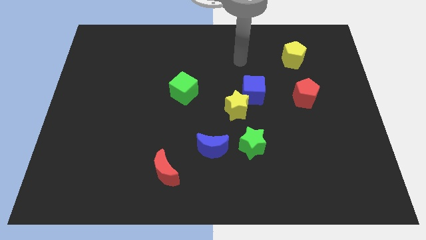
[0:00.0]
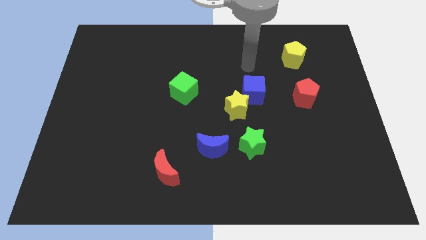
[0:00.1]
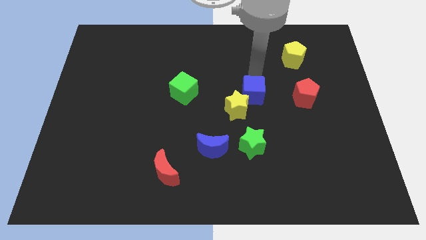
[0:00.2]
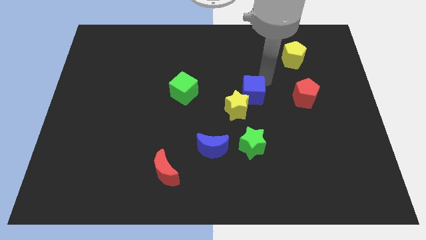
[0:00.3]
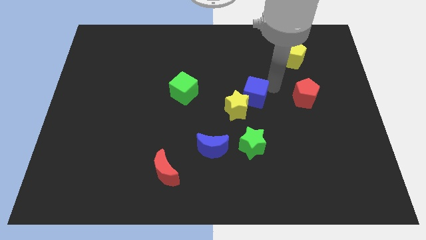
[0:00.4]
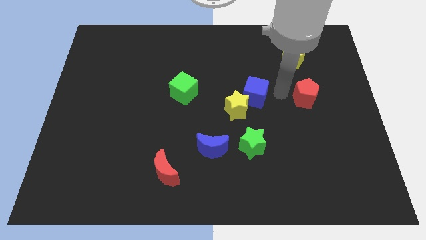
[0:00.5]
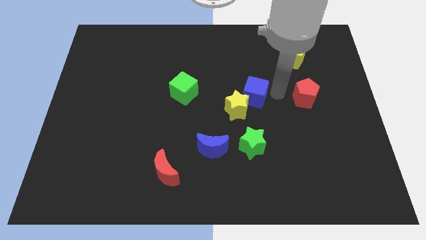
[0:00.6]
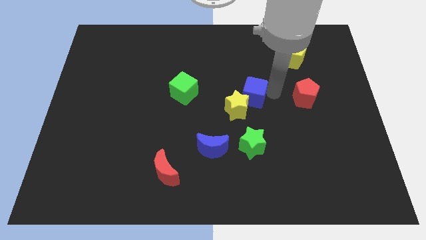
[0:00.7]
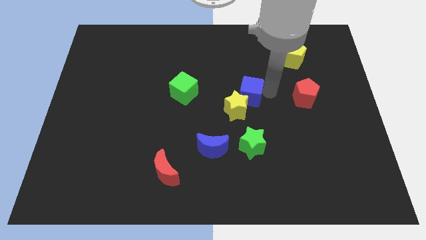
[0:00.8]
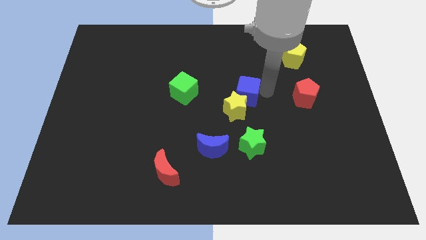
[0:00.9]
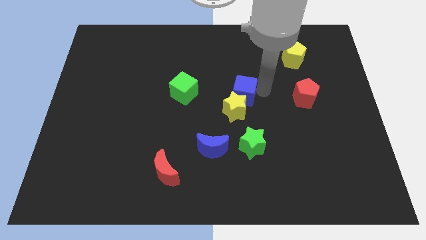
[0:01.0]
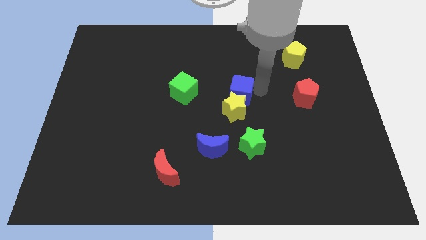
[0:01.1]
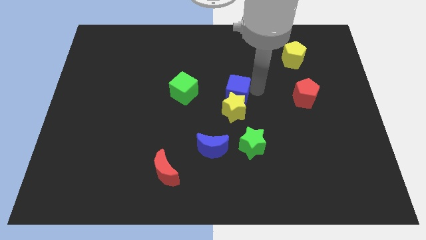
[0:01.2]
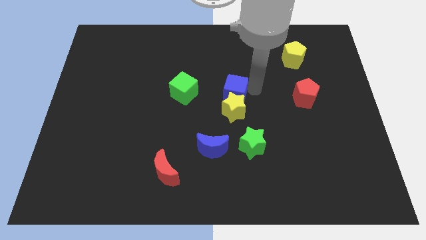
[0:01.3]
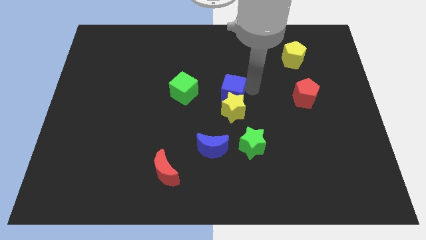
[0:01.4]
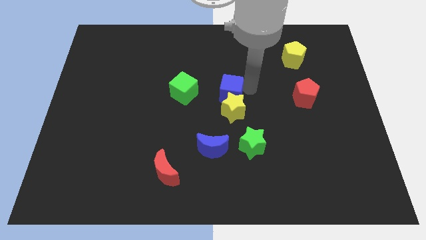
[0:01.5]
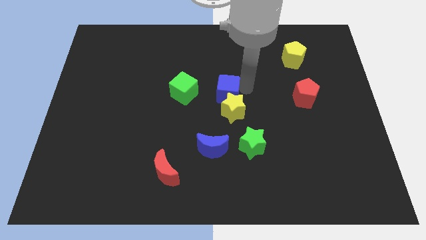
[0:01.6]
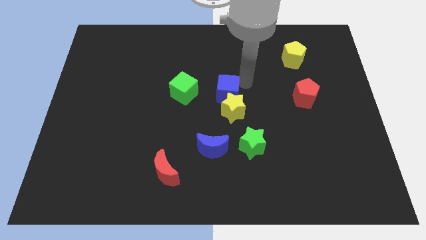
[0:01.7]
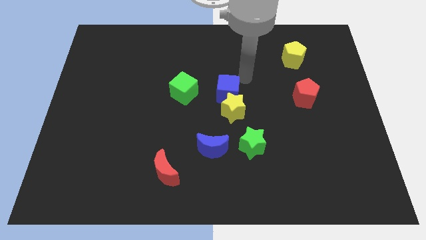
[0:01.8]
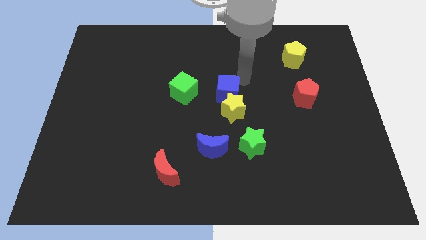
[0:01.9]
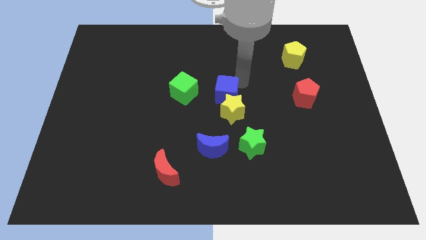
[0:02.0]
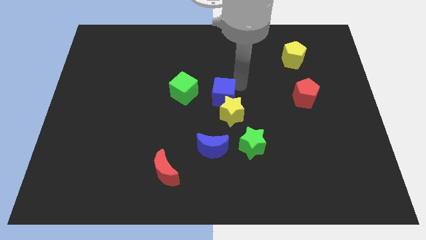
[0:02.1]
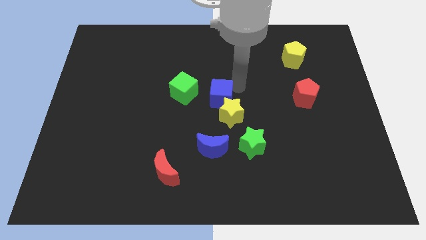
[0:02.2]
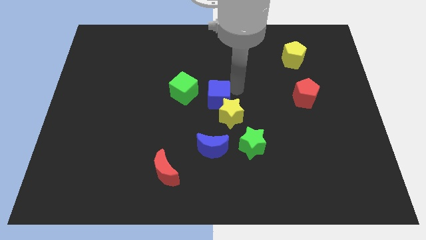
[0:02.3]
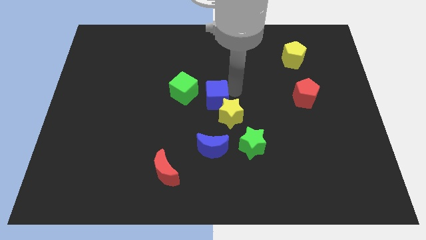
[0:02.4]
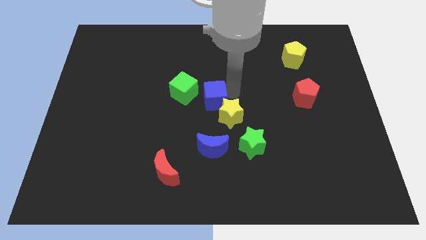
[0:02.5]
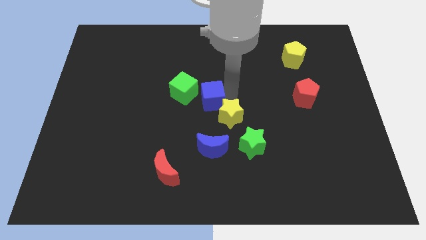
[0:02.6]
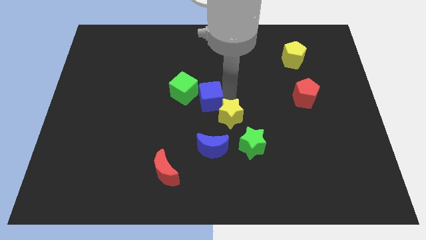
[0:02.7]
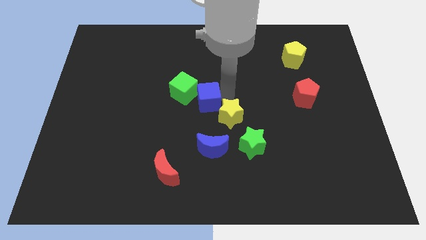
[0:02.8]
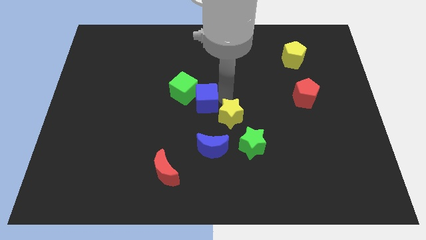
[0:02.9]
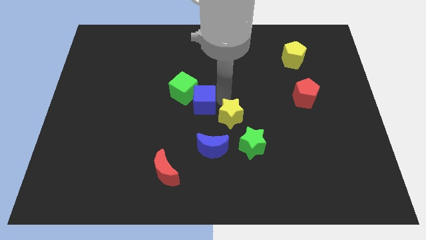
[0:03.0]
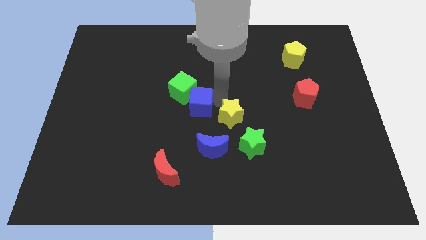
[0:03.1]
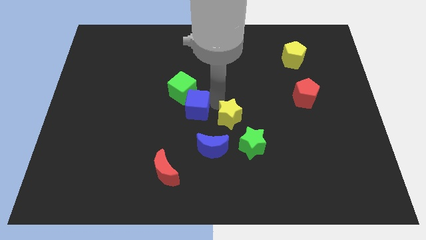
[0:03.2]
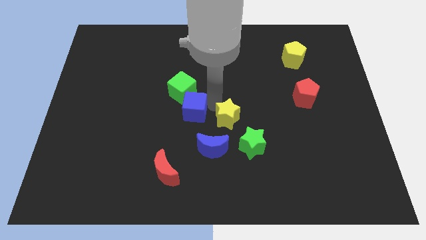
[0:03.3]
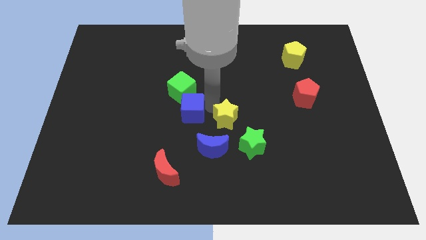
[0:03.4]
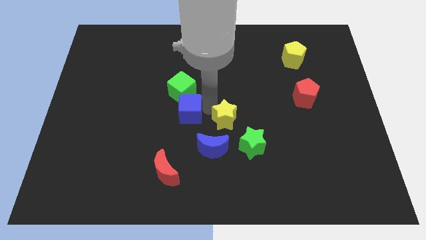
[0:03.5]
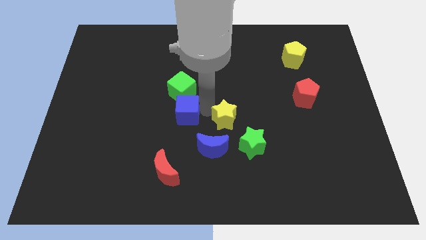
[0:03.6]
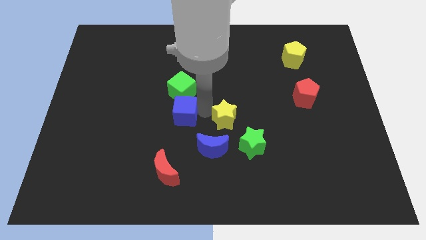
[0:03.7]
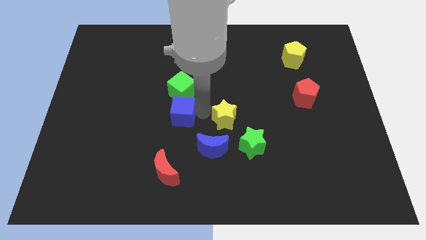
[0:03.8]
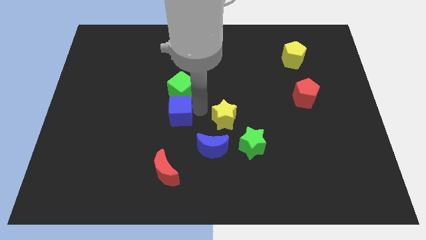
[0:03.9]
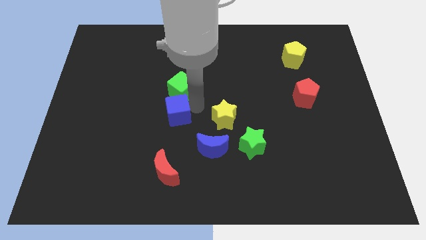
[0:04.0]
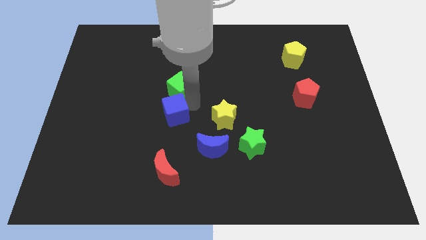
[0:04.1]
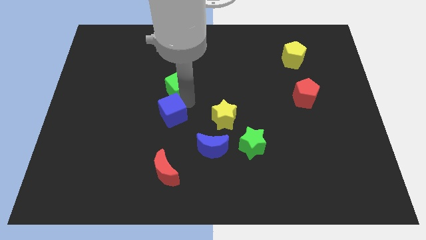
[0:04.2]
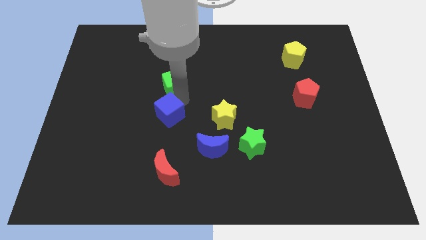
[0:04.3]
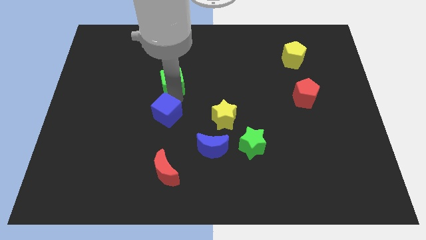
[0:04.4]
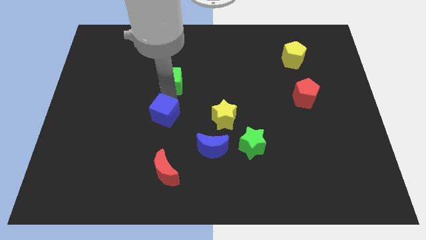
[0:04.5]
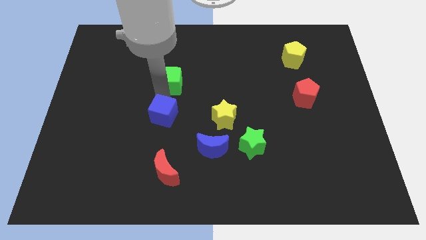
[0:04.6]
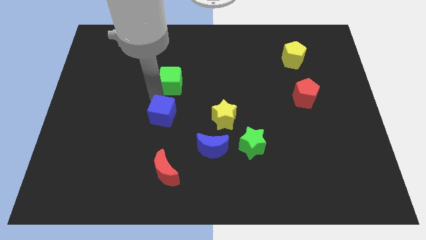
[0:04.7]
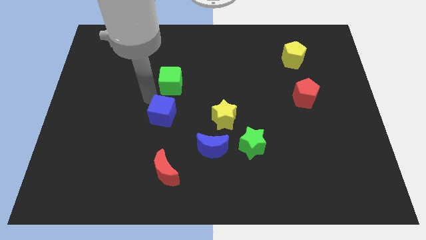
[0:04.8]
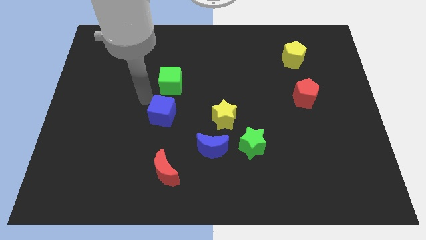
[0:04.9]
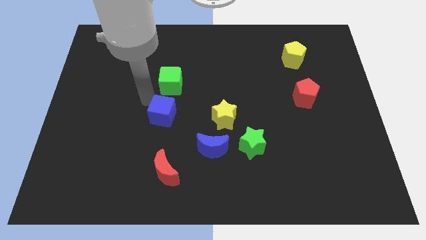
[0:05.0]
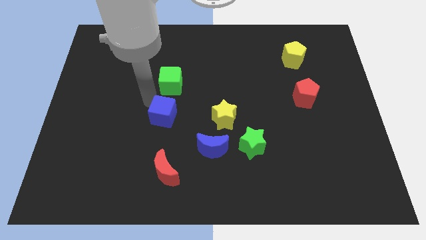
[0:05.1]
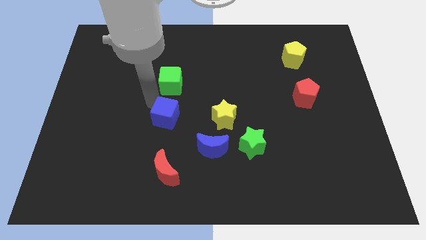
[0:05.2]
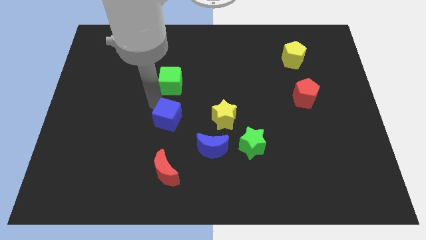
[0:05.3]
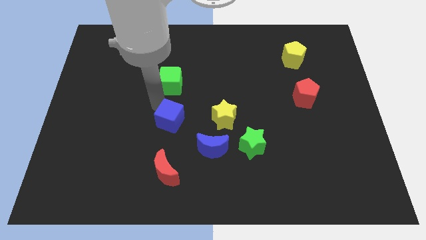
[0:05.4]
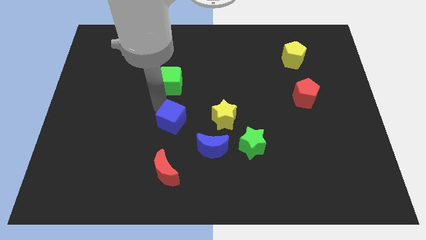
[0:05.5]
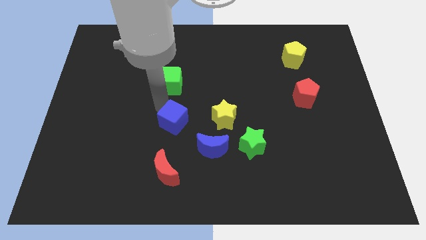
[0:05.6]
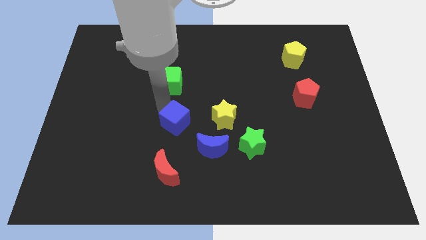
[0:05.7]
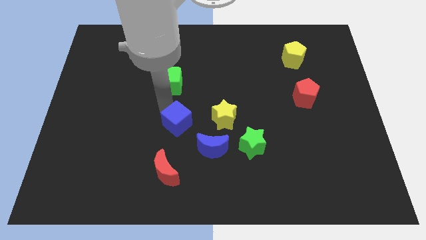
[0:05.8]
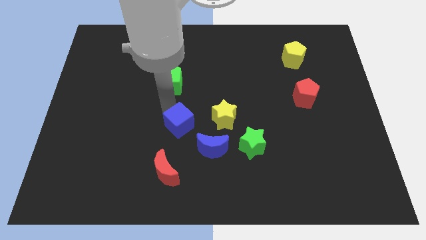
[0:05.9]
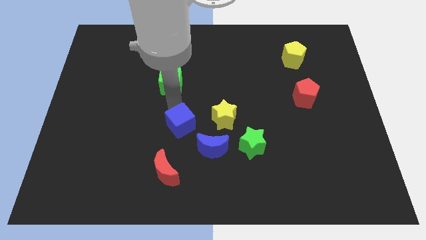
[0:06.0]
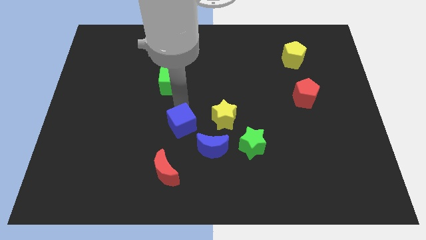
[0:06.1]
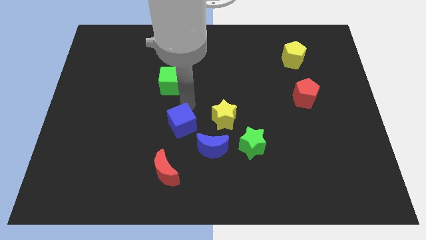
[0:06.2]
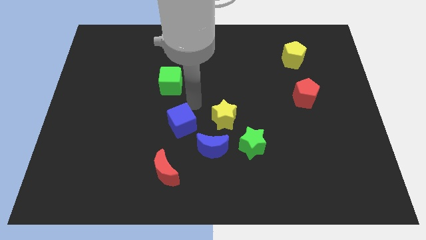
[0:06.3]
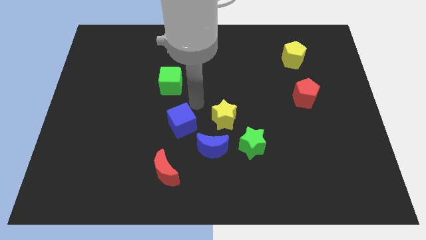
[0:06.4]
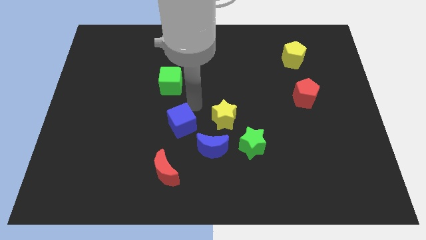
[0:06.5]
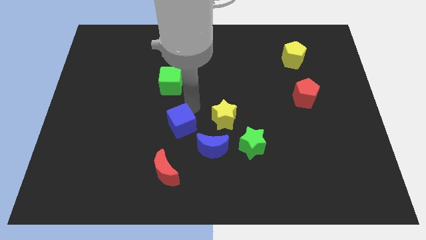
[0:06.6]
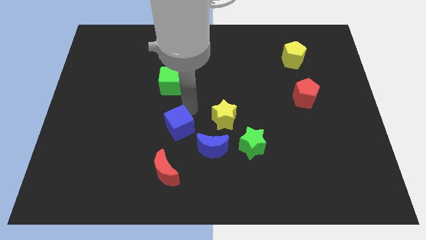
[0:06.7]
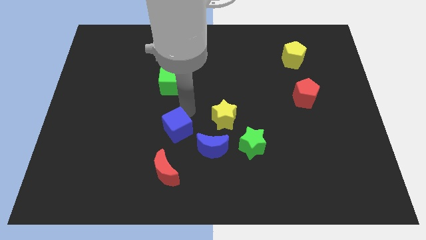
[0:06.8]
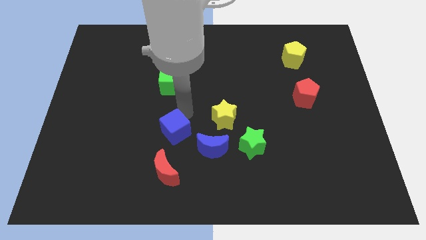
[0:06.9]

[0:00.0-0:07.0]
move the blue cube just left of the blue moon

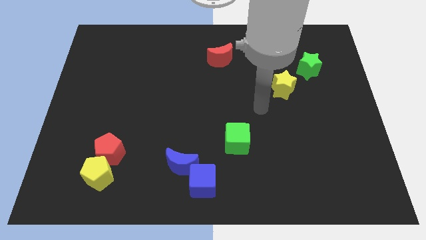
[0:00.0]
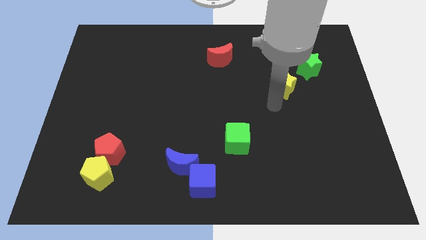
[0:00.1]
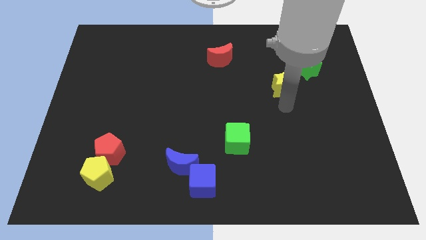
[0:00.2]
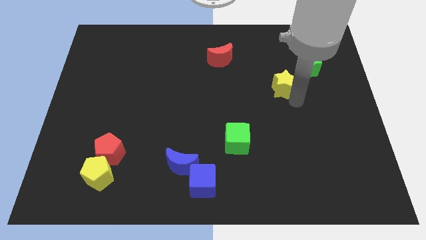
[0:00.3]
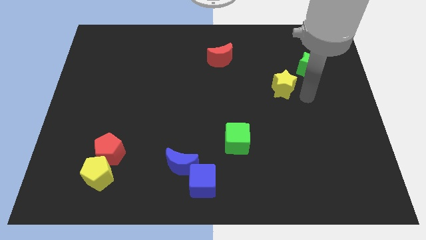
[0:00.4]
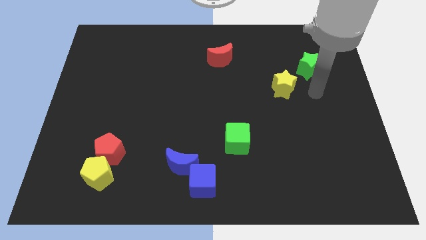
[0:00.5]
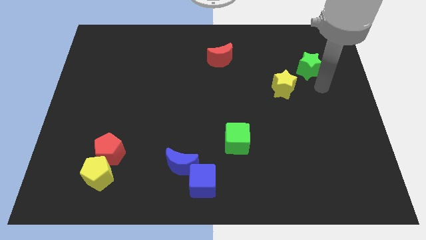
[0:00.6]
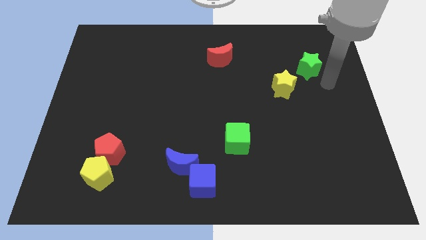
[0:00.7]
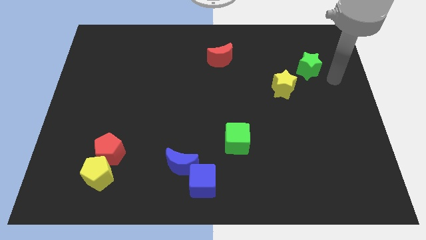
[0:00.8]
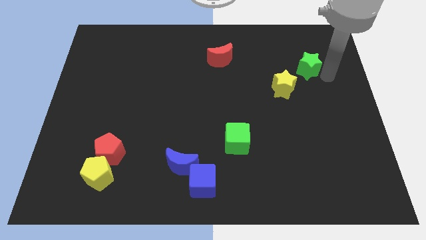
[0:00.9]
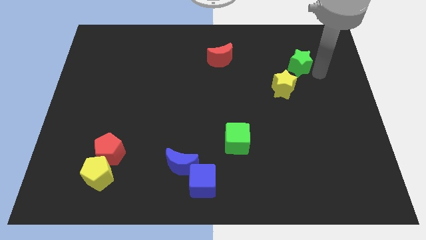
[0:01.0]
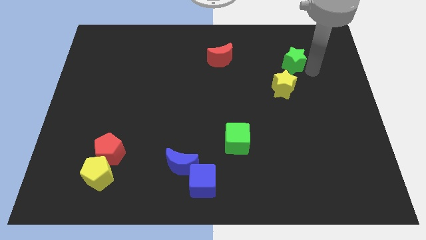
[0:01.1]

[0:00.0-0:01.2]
push the green star to the top side of the yellow star
